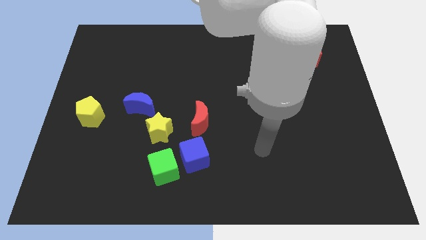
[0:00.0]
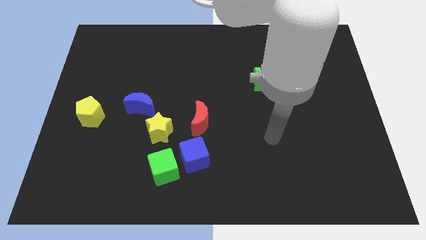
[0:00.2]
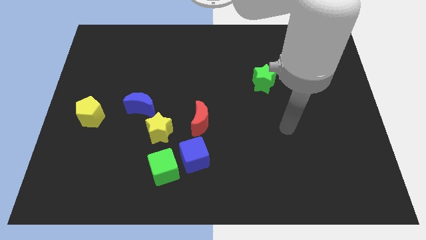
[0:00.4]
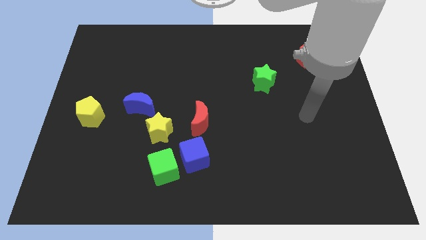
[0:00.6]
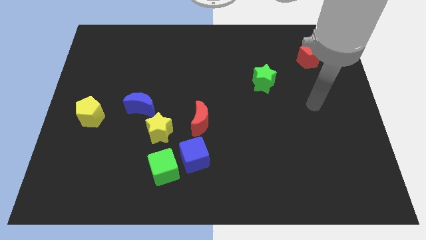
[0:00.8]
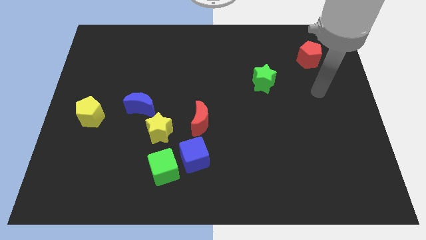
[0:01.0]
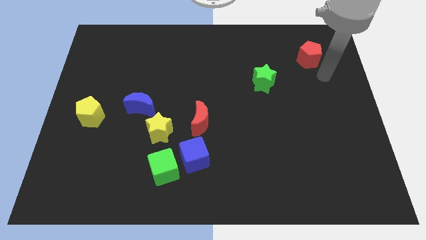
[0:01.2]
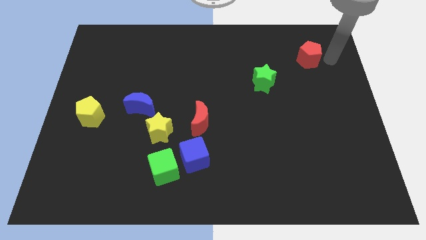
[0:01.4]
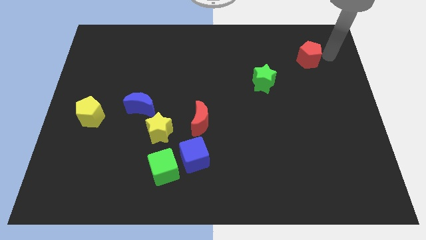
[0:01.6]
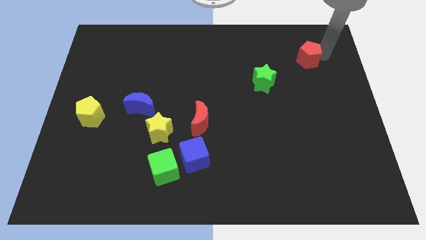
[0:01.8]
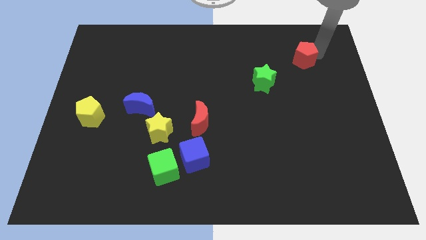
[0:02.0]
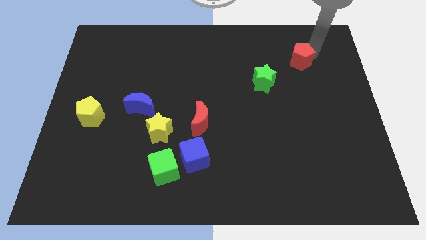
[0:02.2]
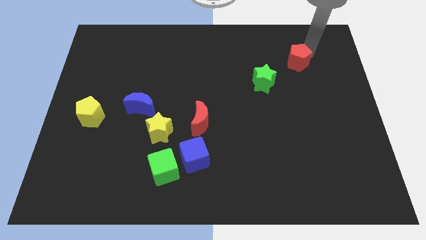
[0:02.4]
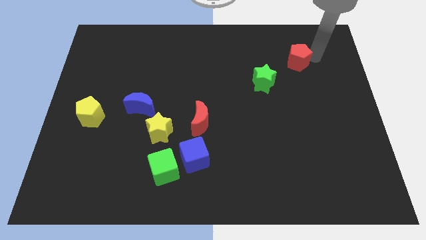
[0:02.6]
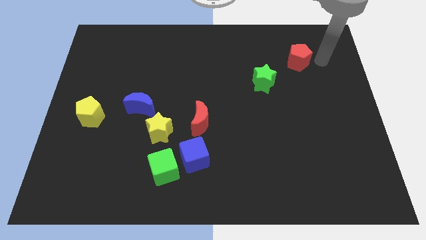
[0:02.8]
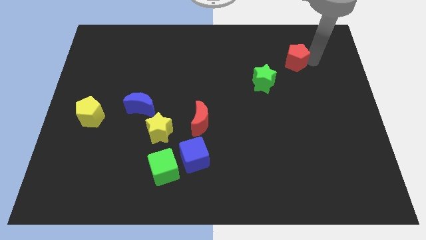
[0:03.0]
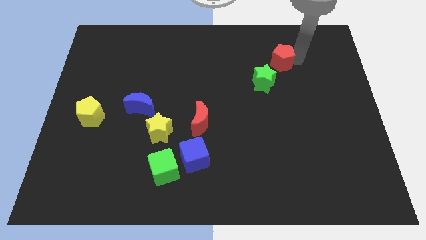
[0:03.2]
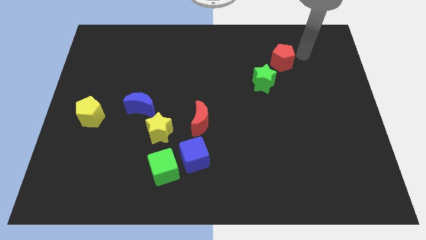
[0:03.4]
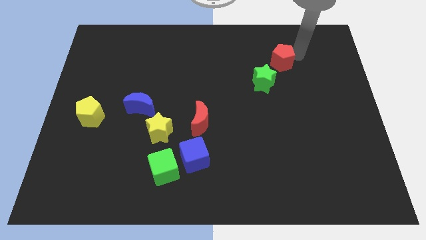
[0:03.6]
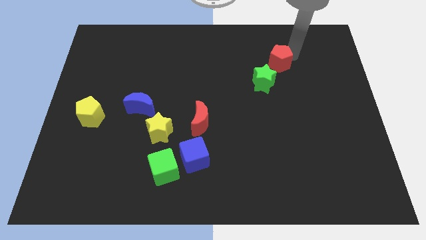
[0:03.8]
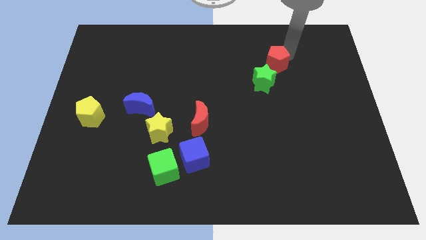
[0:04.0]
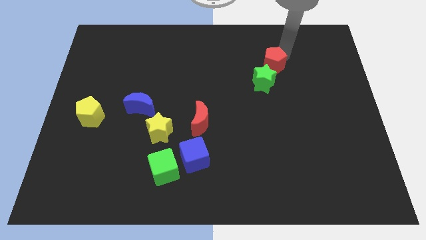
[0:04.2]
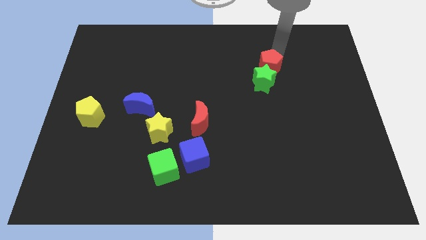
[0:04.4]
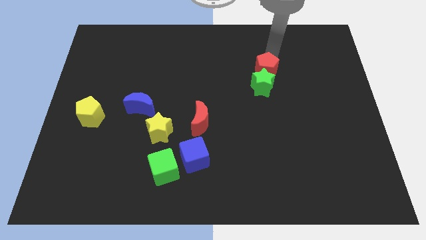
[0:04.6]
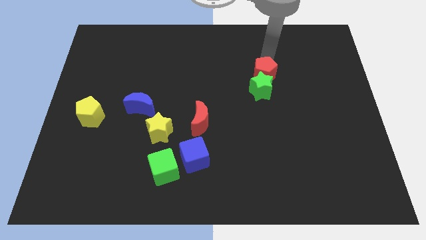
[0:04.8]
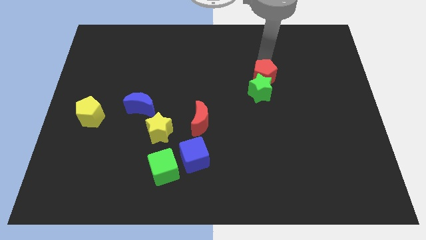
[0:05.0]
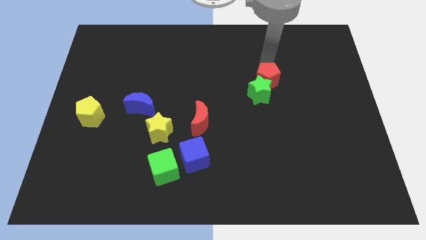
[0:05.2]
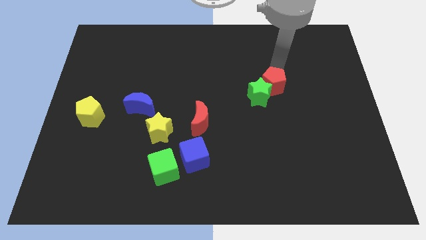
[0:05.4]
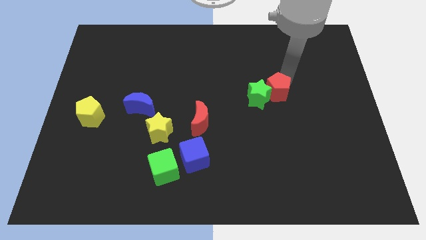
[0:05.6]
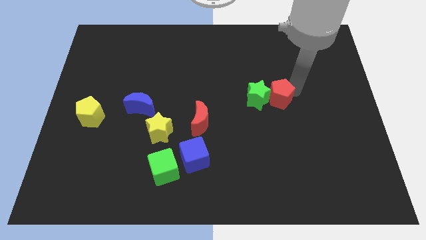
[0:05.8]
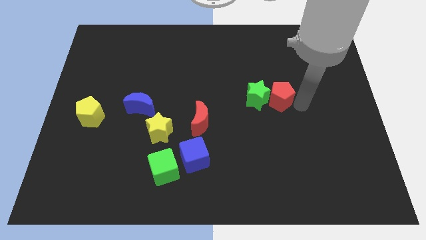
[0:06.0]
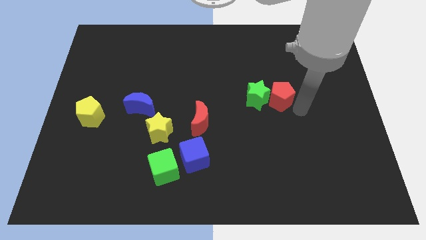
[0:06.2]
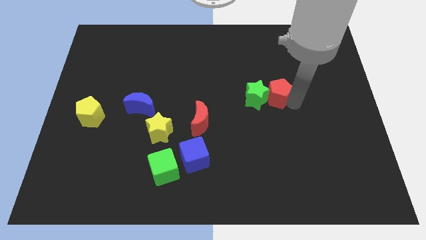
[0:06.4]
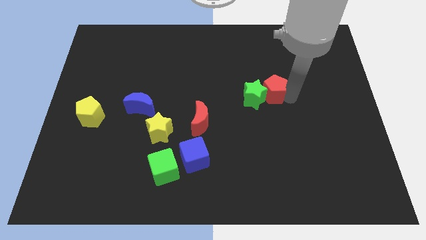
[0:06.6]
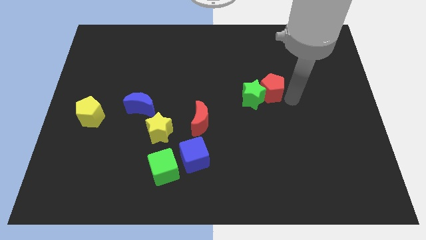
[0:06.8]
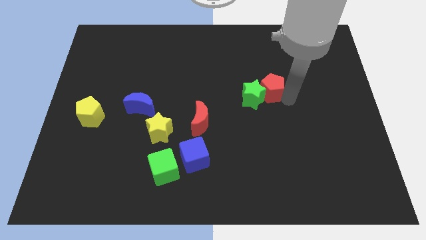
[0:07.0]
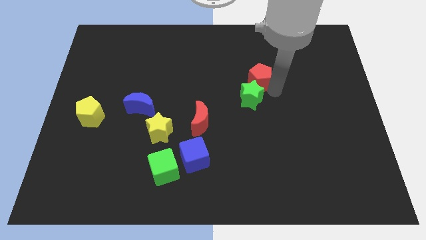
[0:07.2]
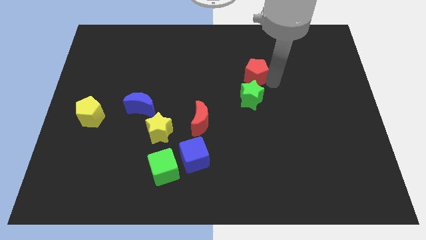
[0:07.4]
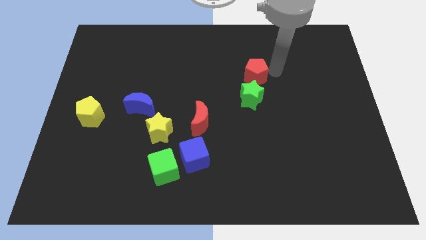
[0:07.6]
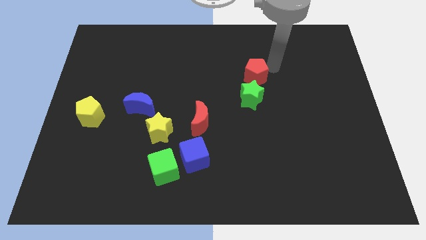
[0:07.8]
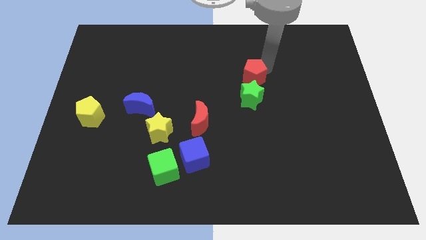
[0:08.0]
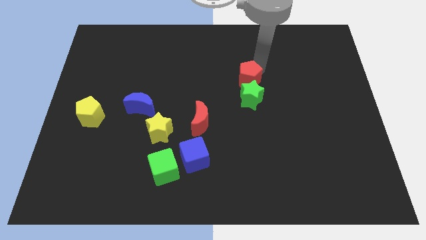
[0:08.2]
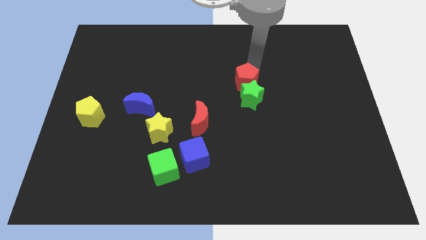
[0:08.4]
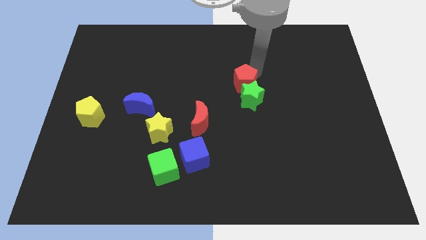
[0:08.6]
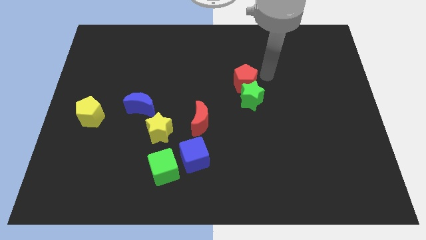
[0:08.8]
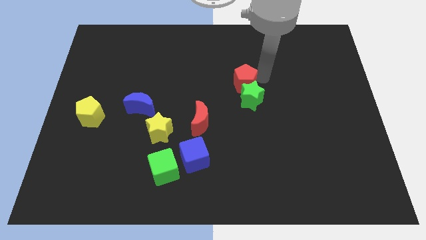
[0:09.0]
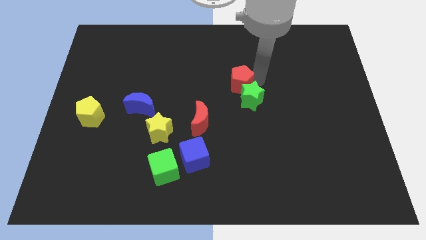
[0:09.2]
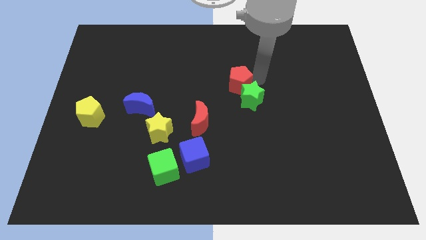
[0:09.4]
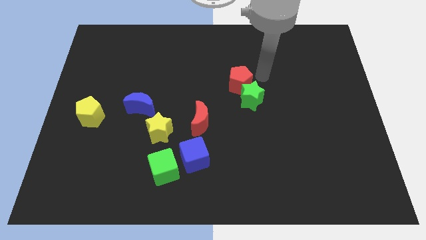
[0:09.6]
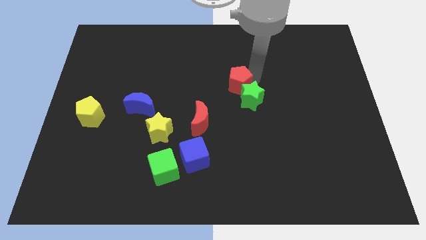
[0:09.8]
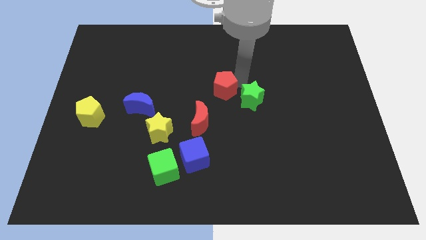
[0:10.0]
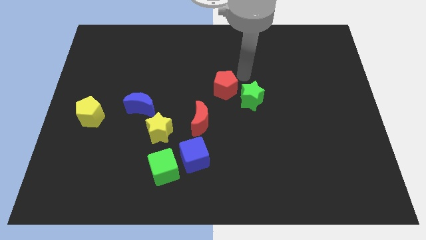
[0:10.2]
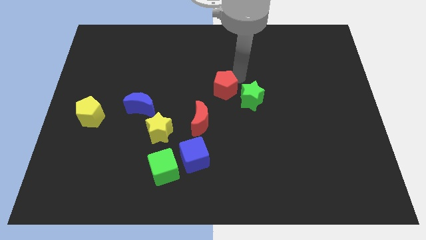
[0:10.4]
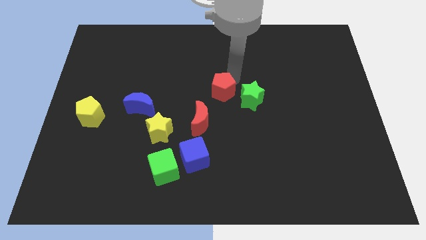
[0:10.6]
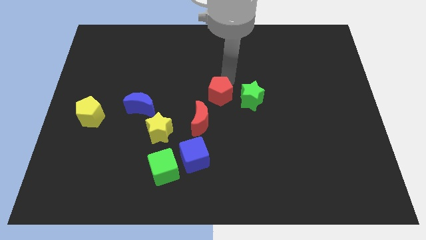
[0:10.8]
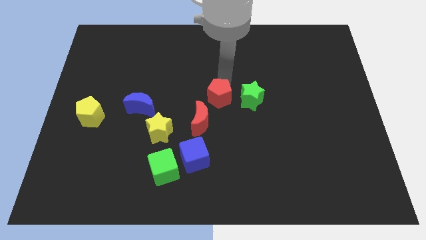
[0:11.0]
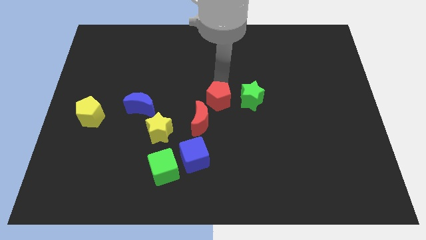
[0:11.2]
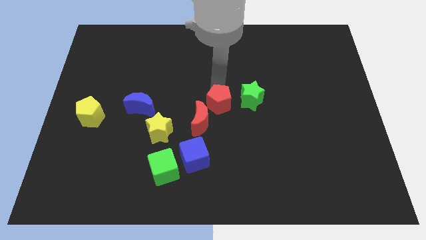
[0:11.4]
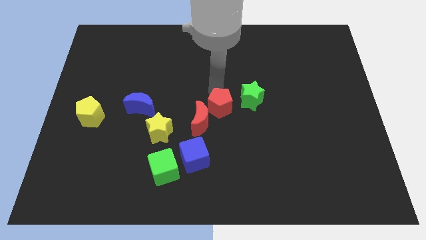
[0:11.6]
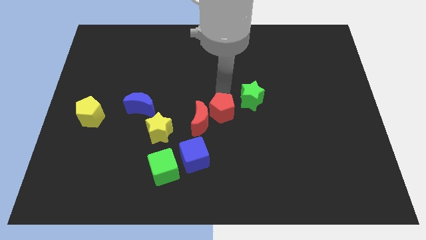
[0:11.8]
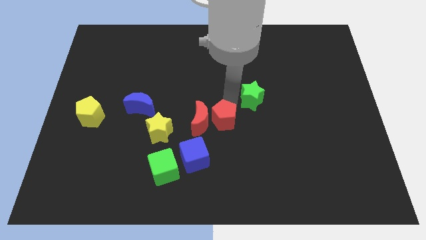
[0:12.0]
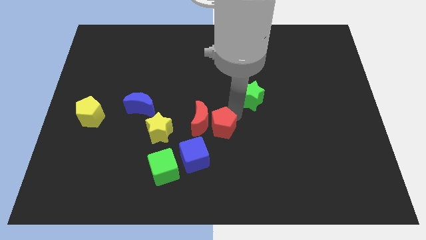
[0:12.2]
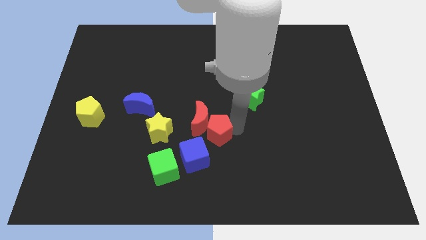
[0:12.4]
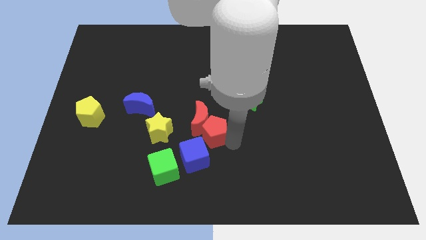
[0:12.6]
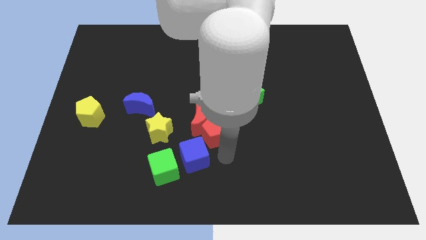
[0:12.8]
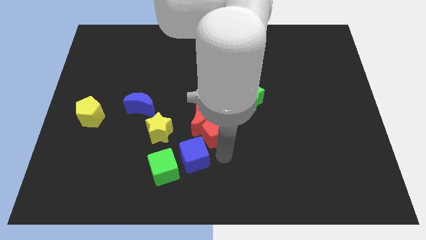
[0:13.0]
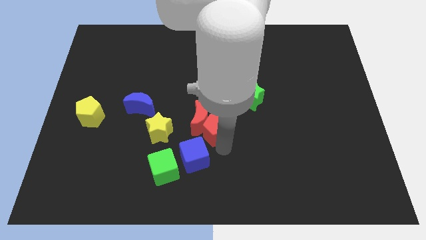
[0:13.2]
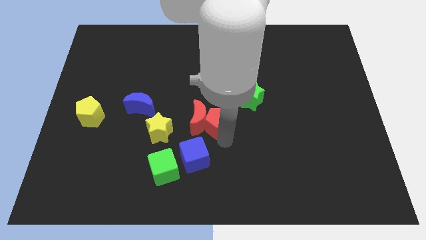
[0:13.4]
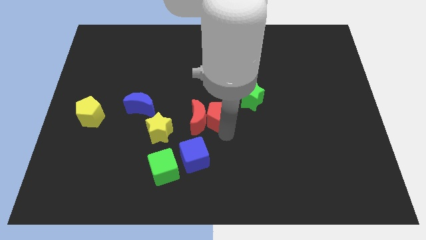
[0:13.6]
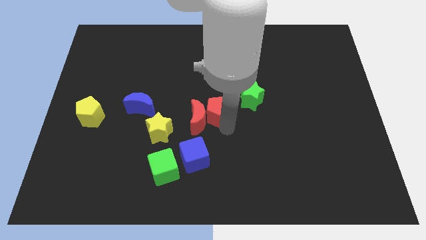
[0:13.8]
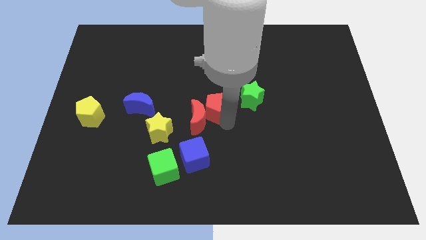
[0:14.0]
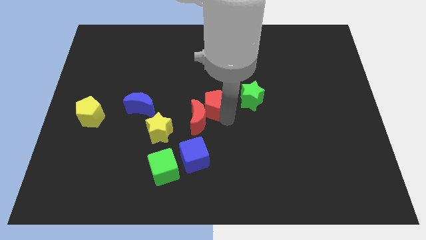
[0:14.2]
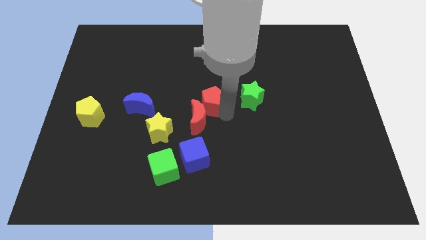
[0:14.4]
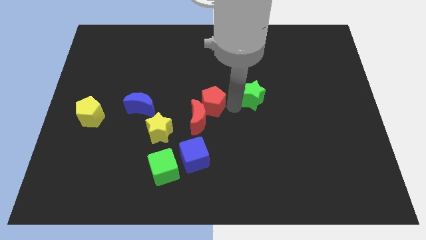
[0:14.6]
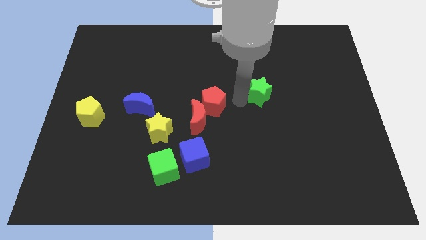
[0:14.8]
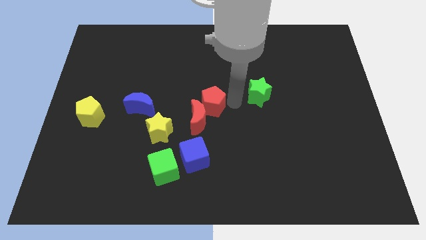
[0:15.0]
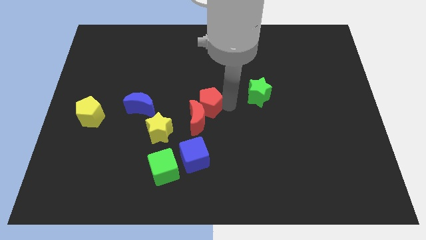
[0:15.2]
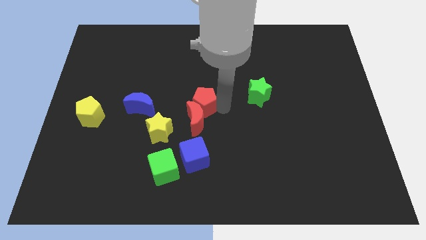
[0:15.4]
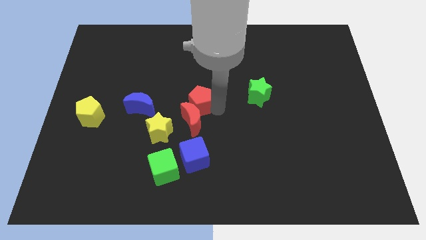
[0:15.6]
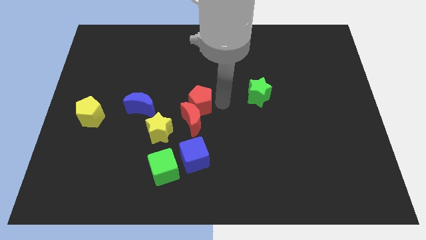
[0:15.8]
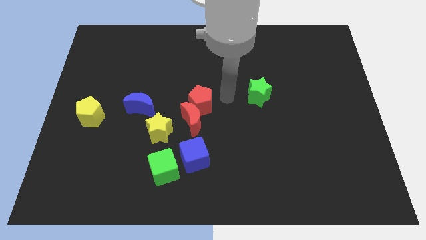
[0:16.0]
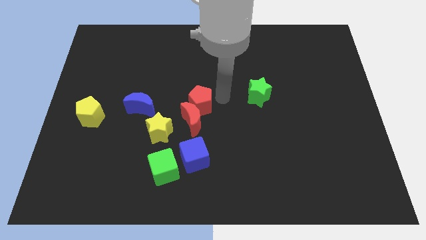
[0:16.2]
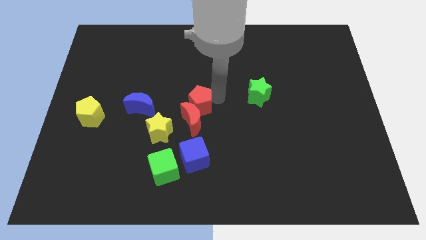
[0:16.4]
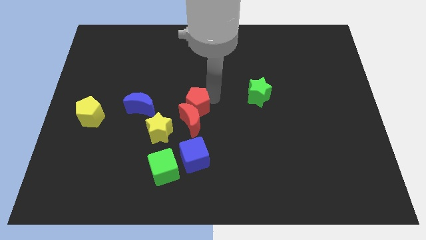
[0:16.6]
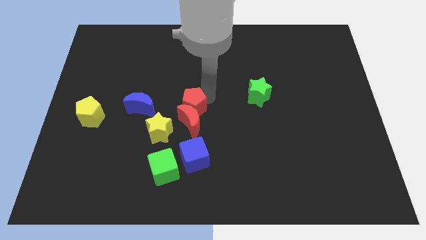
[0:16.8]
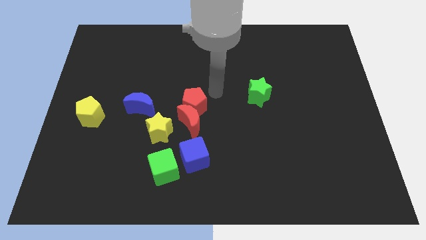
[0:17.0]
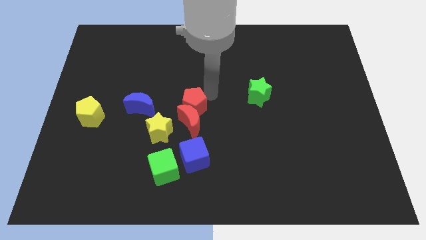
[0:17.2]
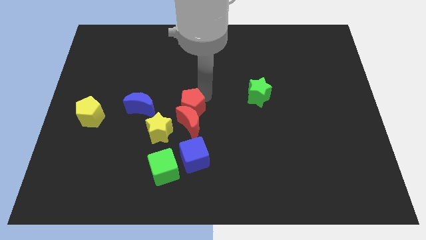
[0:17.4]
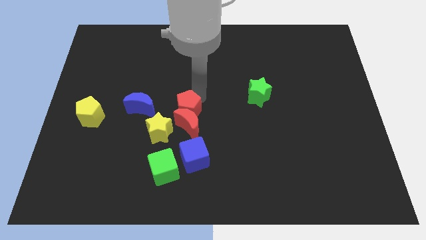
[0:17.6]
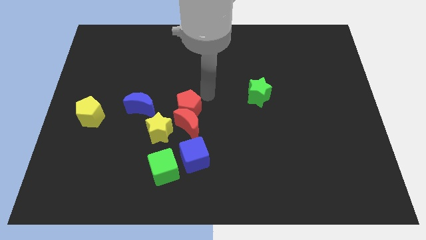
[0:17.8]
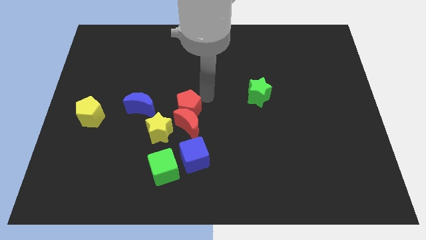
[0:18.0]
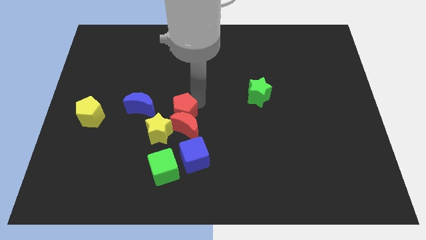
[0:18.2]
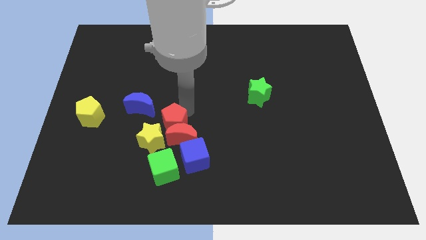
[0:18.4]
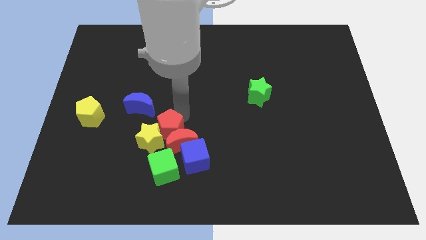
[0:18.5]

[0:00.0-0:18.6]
put the red pentagon next to the yellow star
